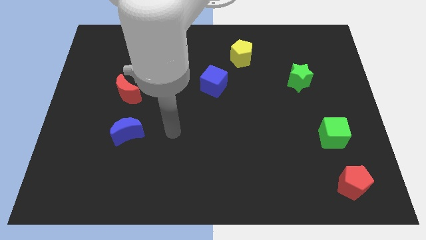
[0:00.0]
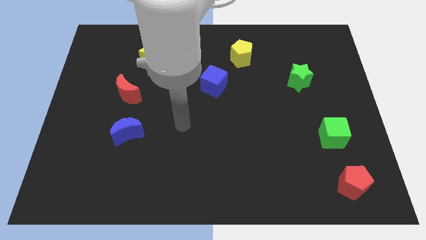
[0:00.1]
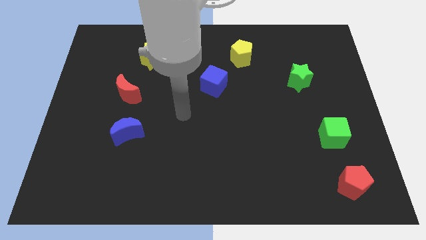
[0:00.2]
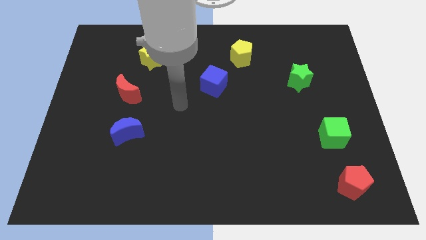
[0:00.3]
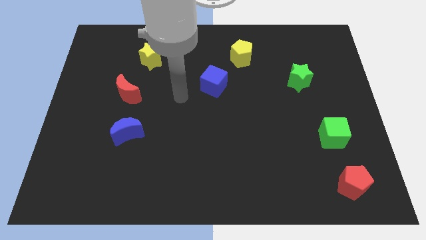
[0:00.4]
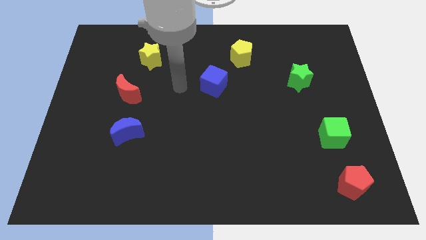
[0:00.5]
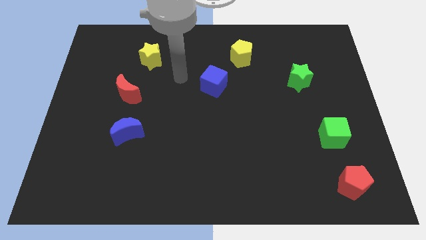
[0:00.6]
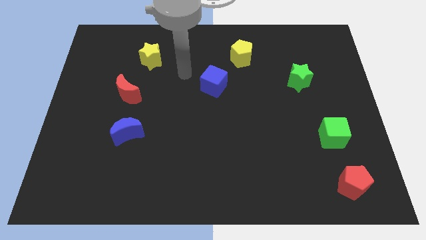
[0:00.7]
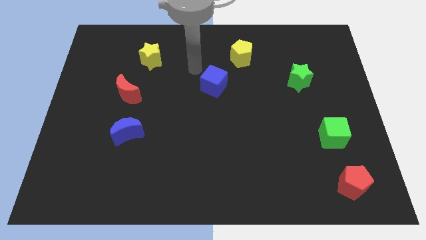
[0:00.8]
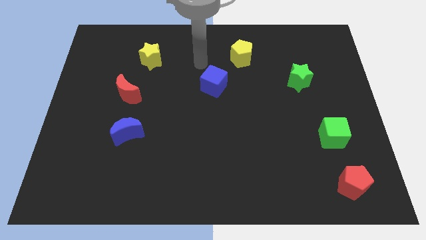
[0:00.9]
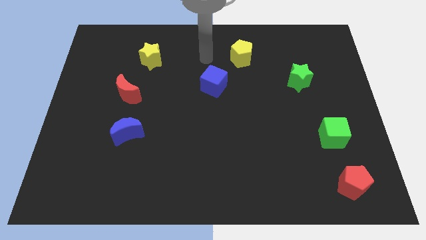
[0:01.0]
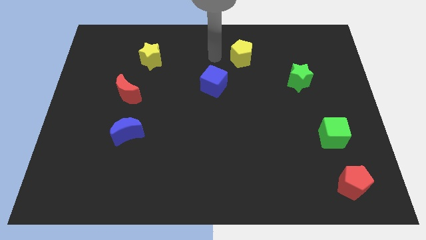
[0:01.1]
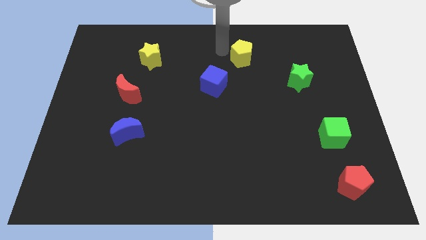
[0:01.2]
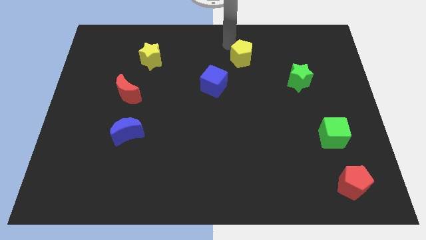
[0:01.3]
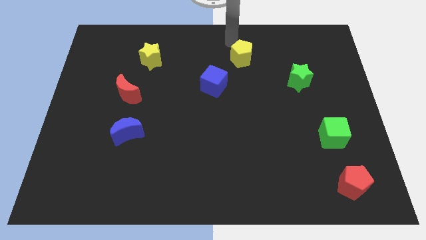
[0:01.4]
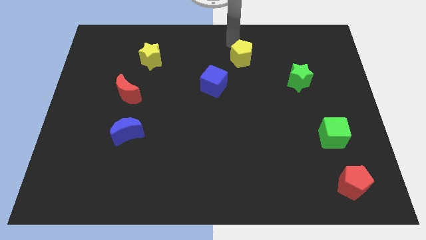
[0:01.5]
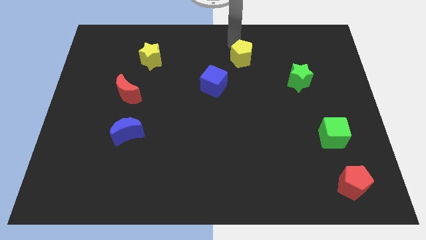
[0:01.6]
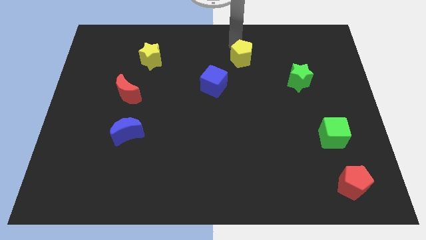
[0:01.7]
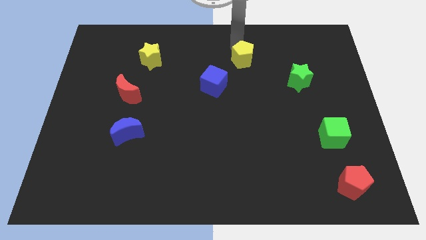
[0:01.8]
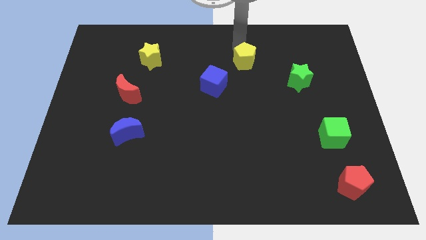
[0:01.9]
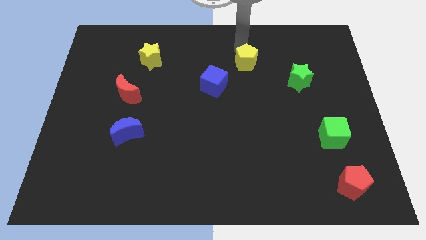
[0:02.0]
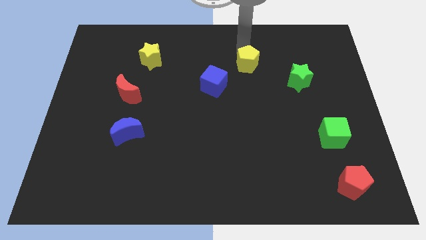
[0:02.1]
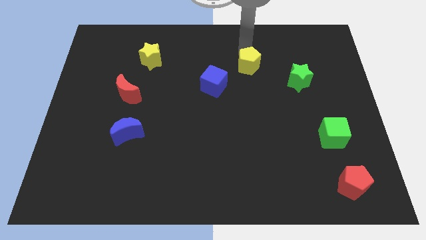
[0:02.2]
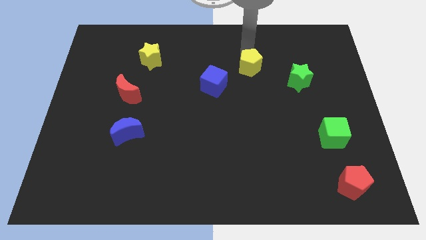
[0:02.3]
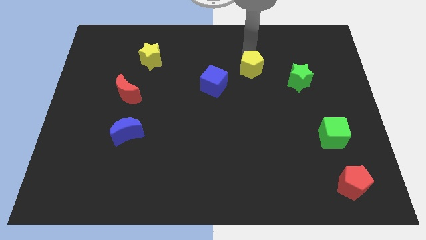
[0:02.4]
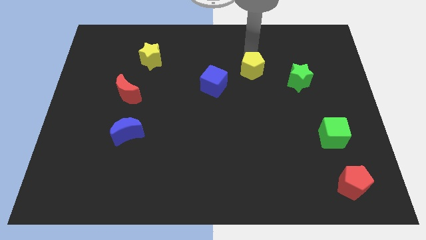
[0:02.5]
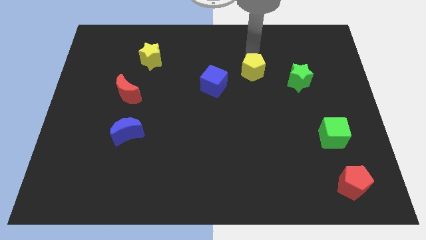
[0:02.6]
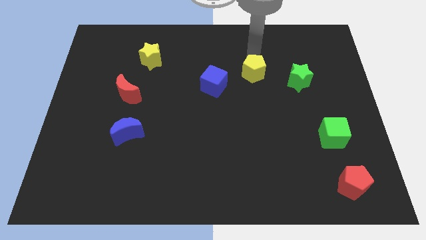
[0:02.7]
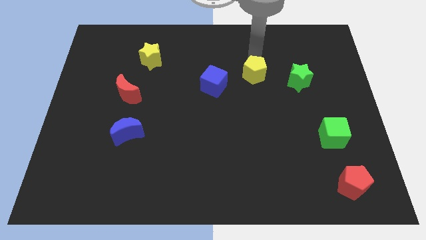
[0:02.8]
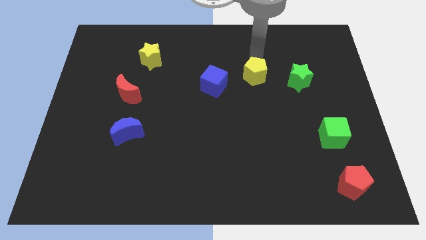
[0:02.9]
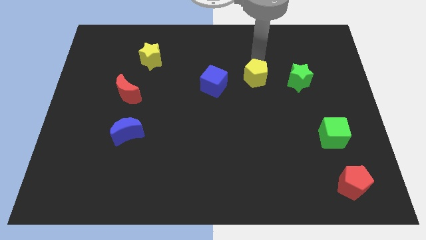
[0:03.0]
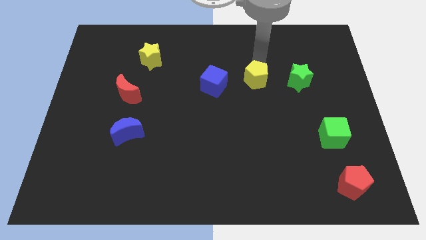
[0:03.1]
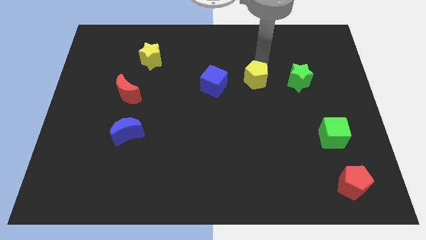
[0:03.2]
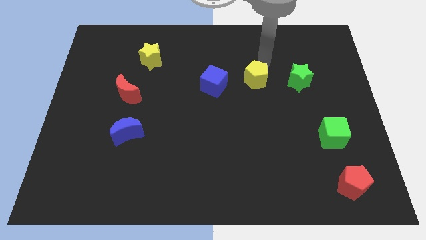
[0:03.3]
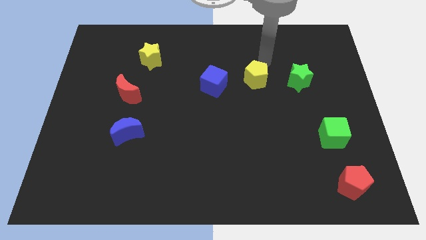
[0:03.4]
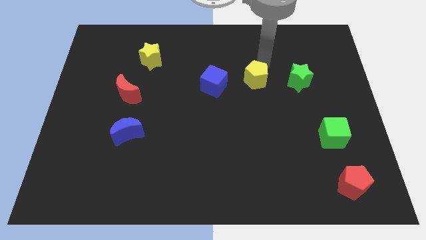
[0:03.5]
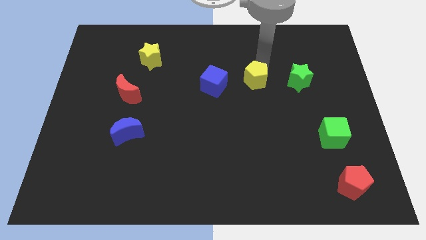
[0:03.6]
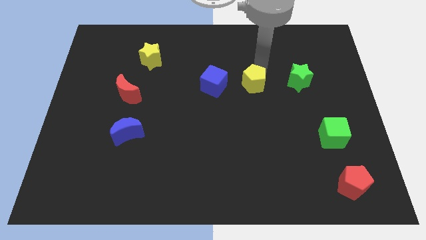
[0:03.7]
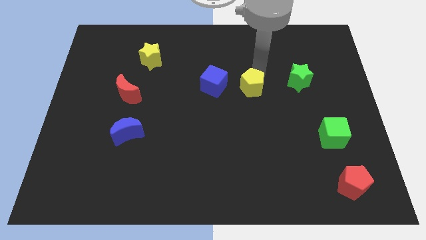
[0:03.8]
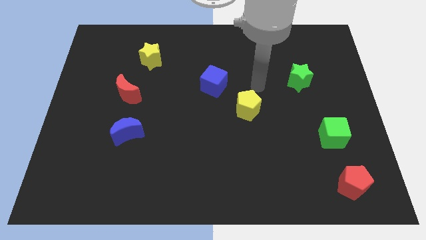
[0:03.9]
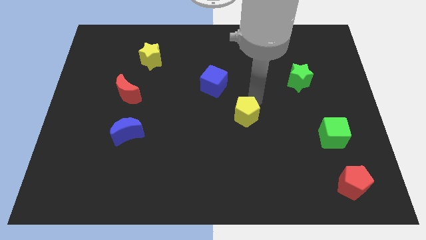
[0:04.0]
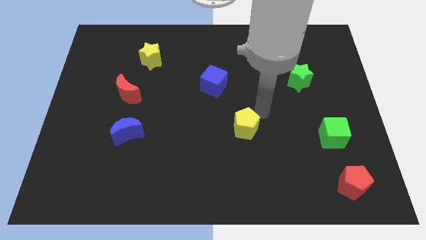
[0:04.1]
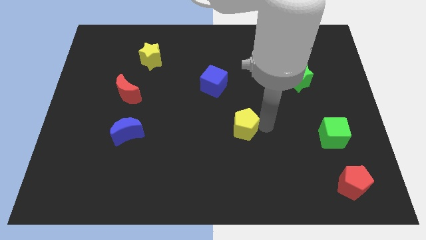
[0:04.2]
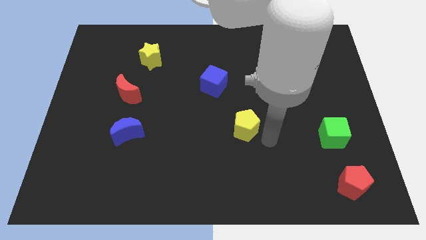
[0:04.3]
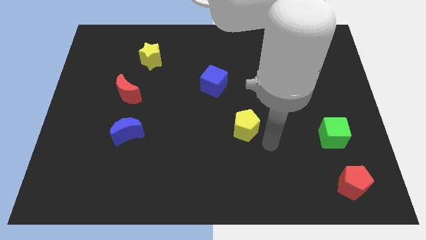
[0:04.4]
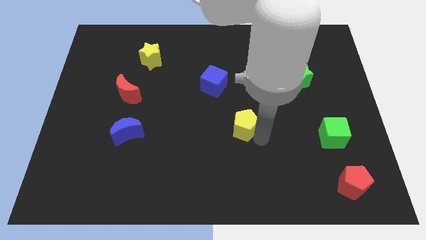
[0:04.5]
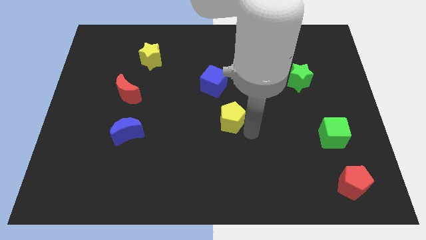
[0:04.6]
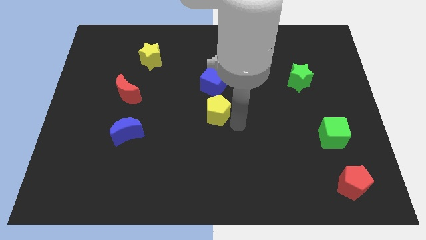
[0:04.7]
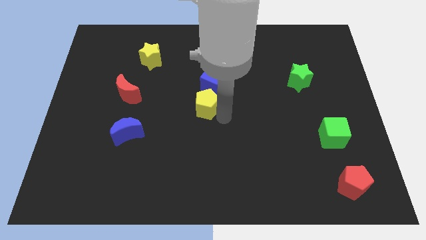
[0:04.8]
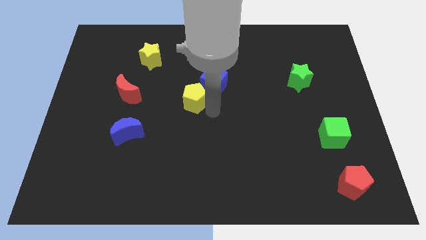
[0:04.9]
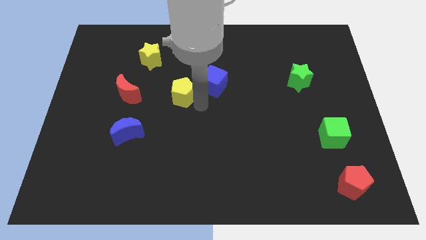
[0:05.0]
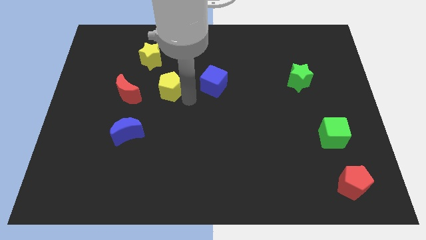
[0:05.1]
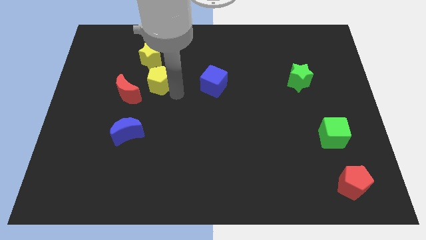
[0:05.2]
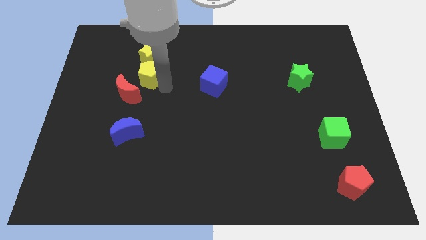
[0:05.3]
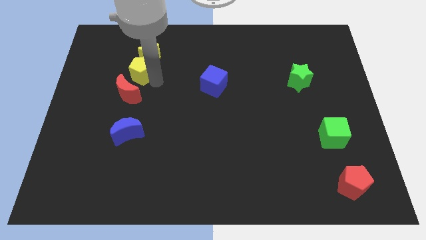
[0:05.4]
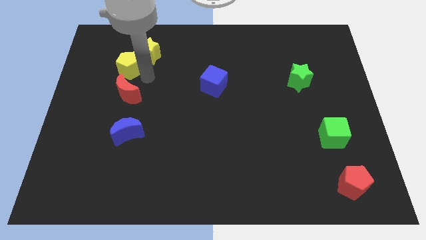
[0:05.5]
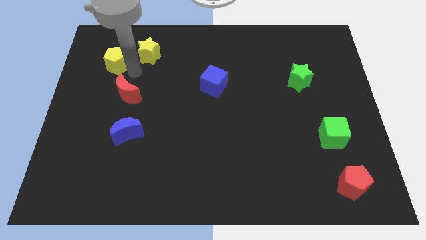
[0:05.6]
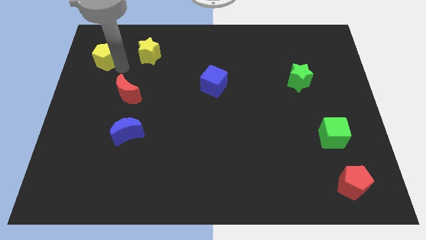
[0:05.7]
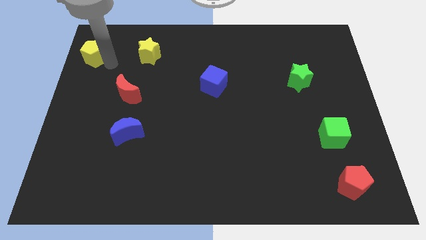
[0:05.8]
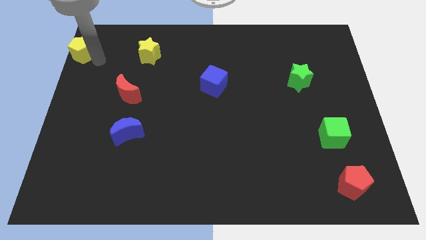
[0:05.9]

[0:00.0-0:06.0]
push the yellow pentagon to the upper left corner
